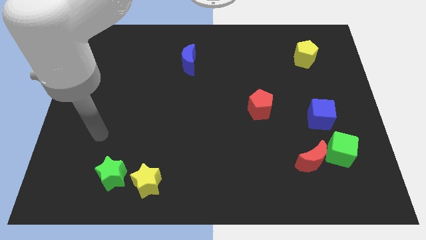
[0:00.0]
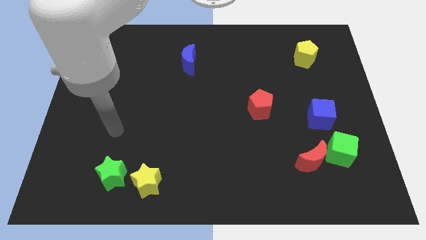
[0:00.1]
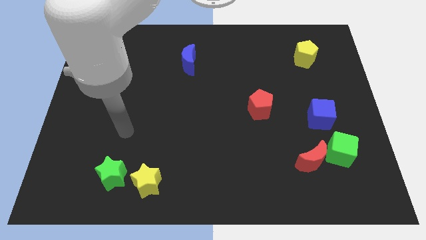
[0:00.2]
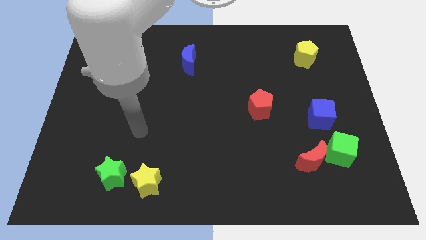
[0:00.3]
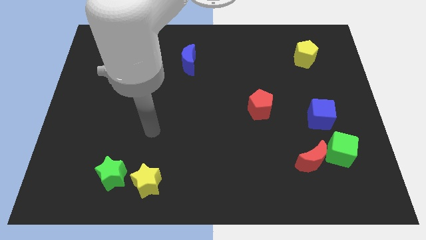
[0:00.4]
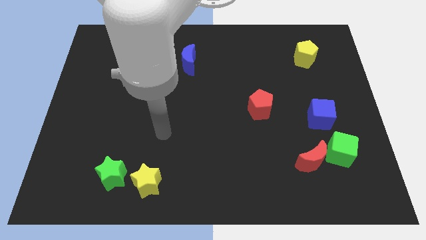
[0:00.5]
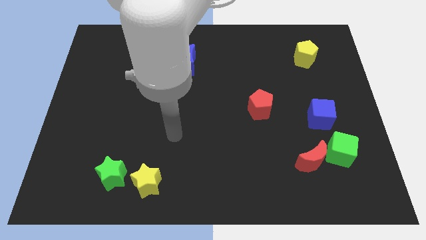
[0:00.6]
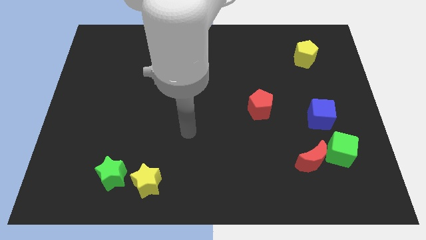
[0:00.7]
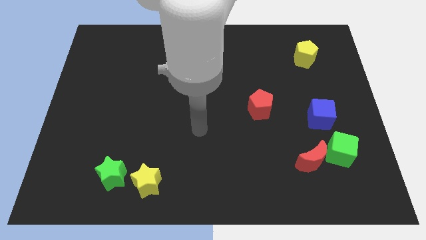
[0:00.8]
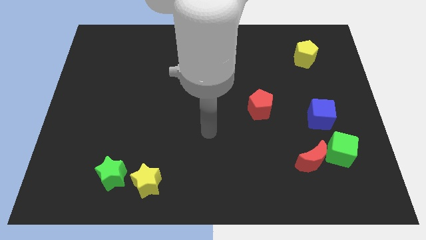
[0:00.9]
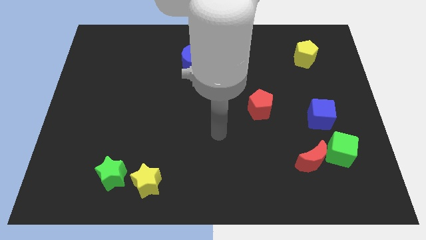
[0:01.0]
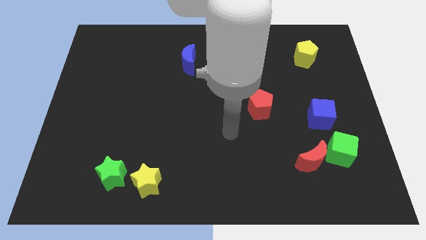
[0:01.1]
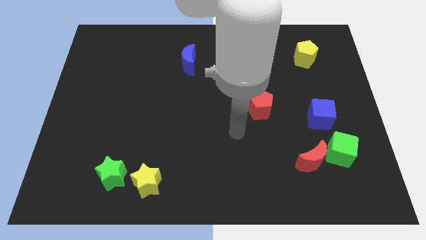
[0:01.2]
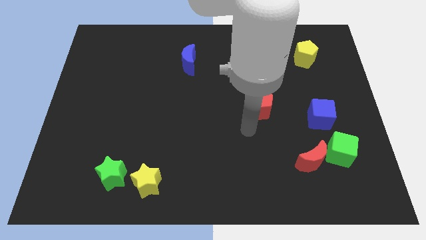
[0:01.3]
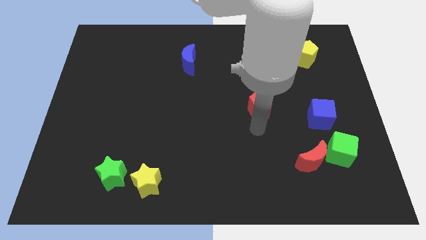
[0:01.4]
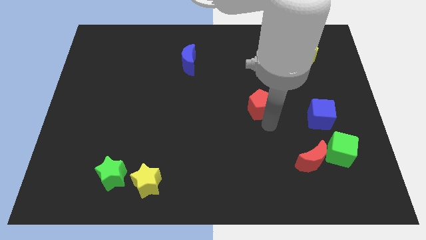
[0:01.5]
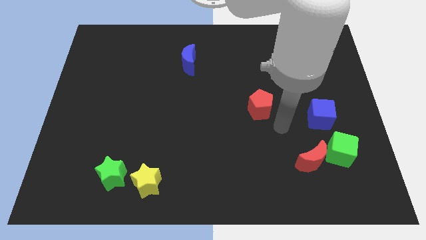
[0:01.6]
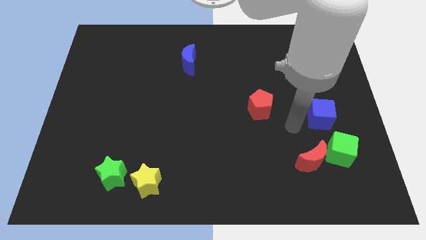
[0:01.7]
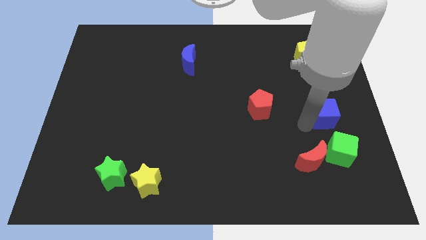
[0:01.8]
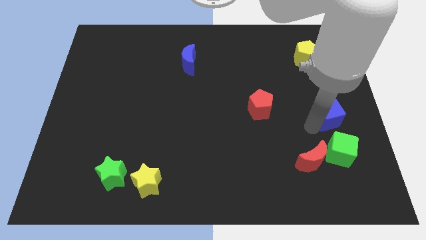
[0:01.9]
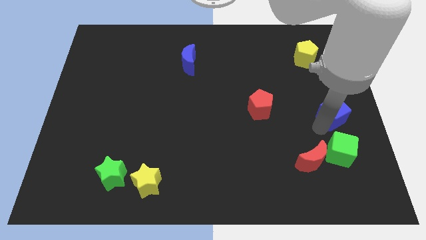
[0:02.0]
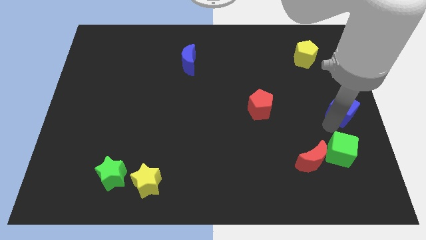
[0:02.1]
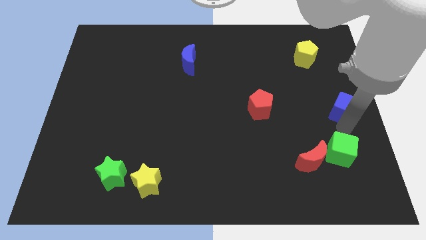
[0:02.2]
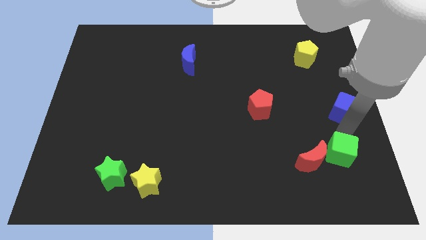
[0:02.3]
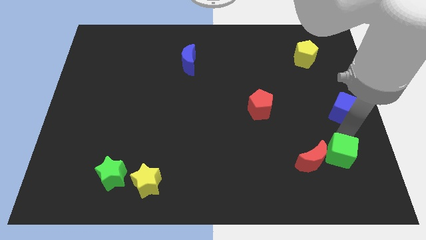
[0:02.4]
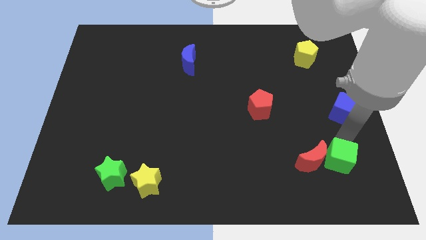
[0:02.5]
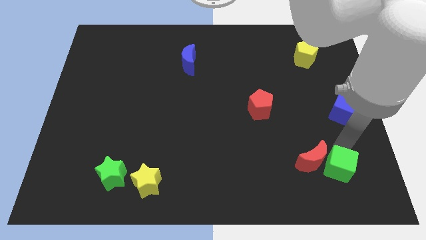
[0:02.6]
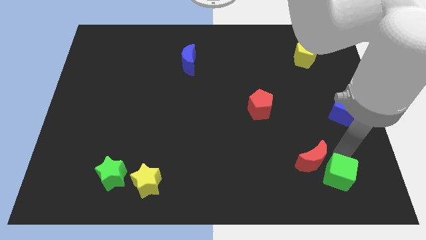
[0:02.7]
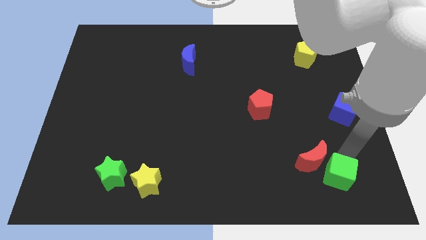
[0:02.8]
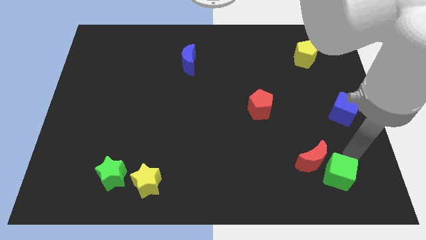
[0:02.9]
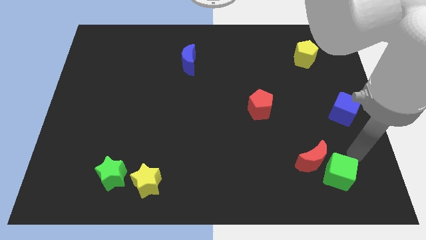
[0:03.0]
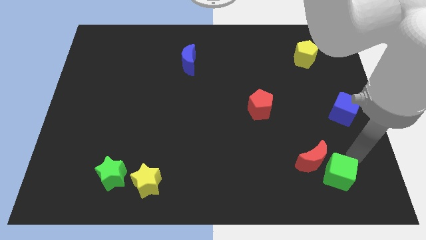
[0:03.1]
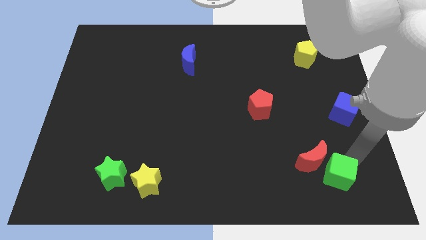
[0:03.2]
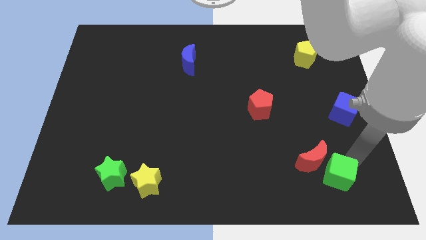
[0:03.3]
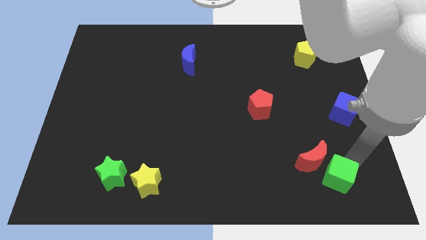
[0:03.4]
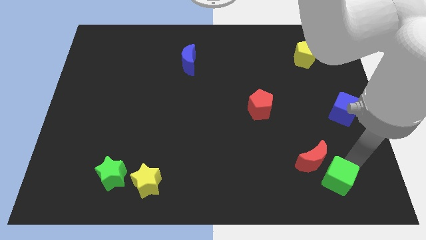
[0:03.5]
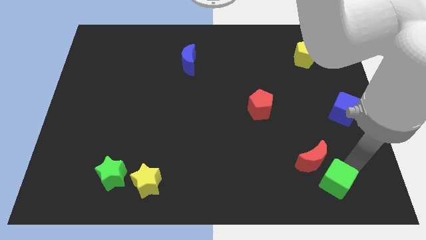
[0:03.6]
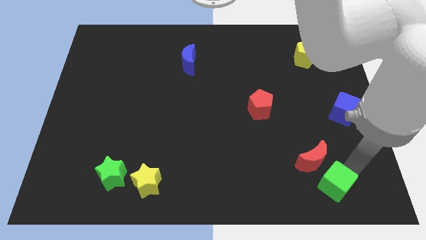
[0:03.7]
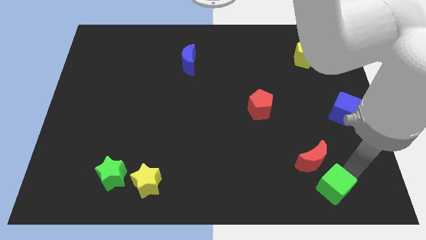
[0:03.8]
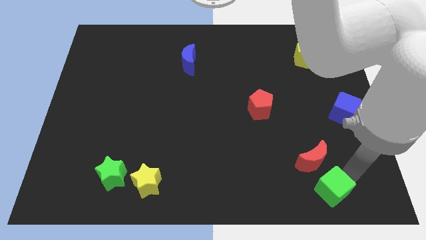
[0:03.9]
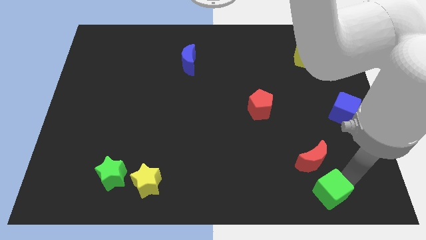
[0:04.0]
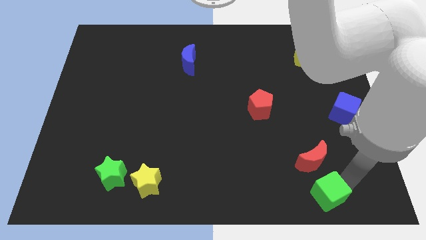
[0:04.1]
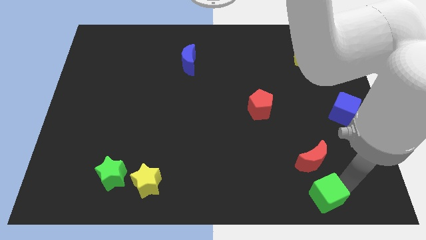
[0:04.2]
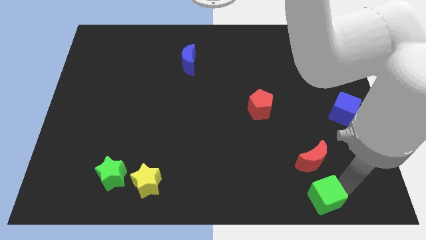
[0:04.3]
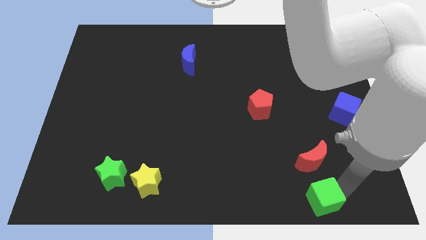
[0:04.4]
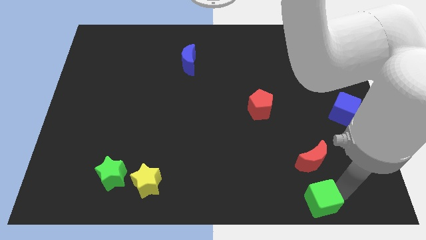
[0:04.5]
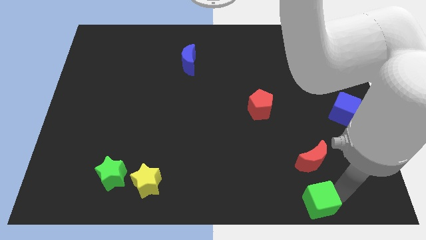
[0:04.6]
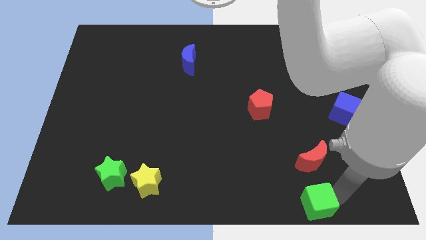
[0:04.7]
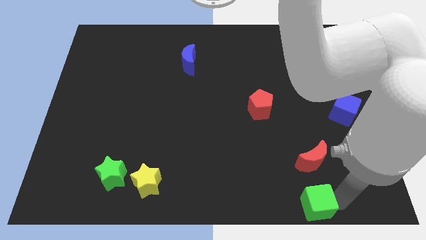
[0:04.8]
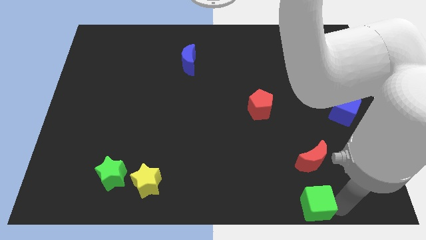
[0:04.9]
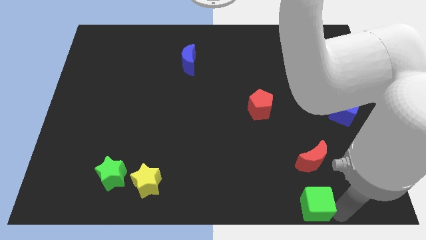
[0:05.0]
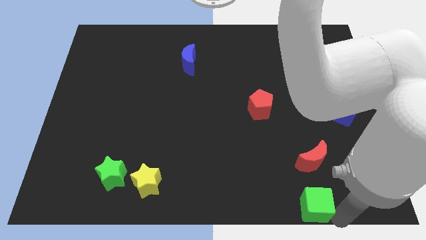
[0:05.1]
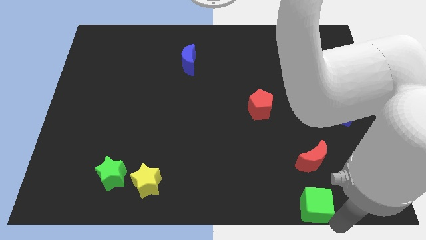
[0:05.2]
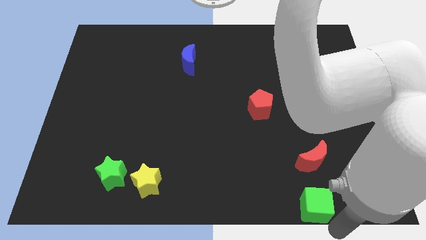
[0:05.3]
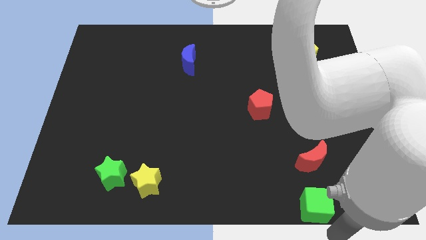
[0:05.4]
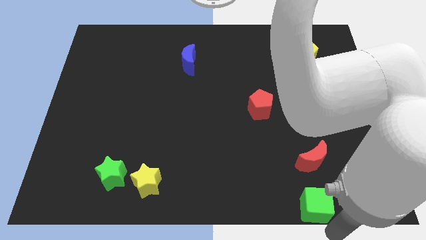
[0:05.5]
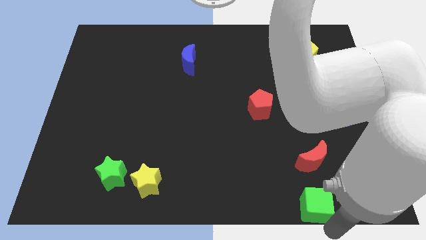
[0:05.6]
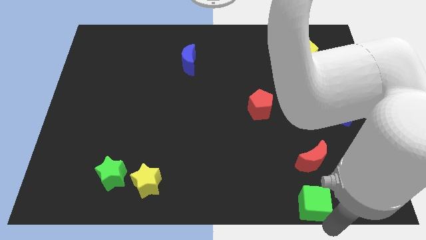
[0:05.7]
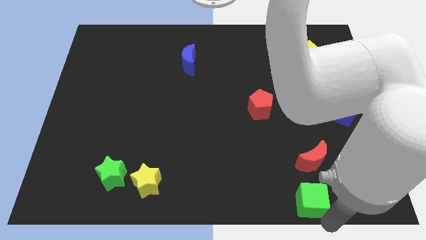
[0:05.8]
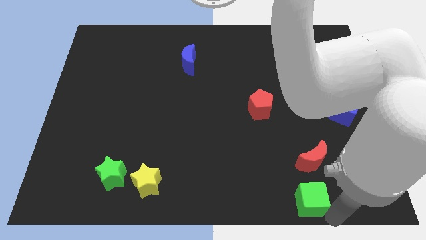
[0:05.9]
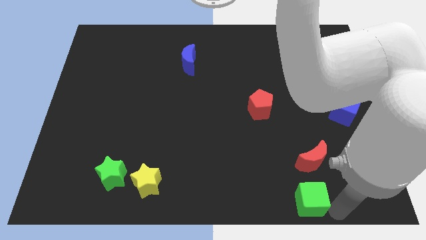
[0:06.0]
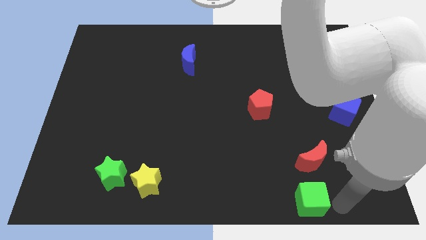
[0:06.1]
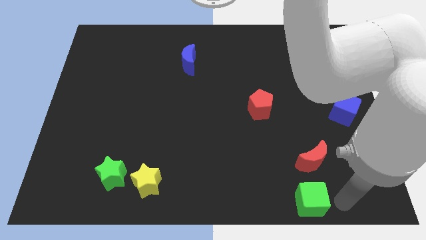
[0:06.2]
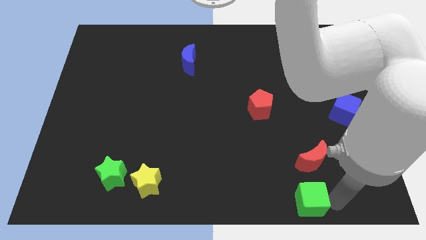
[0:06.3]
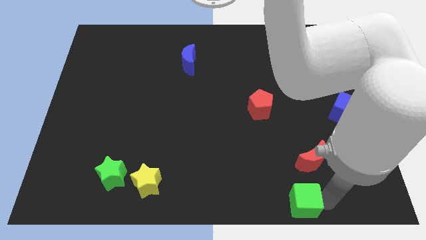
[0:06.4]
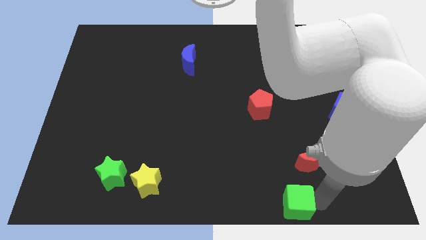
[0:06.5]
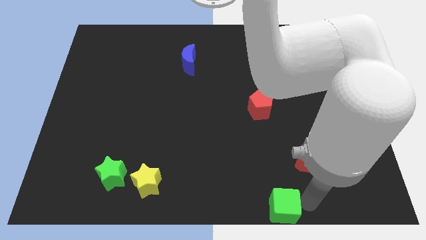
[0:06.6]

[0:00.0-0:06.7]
put the green cube to the bottom
